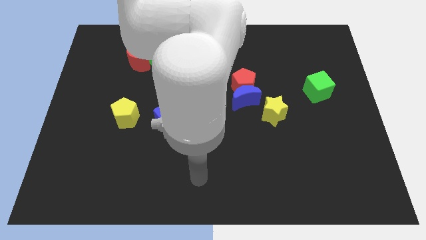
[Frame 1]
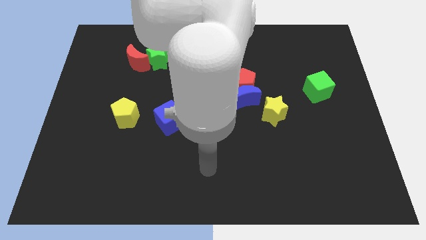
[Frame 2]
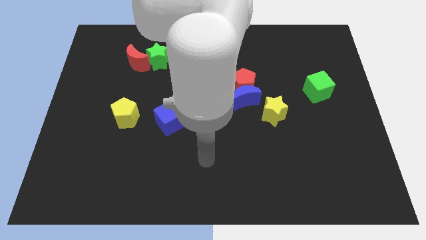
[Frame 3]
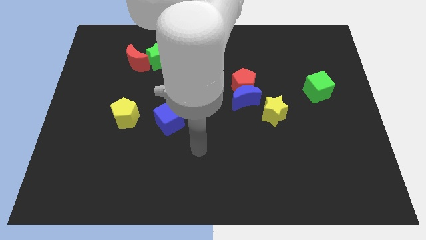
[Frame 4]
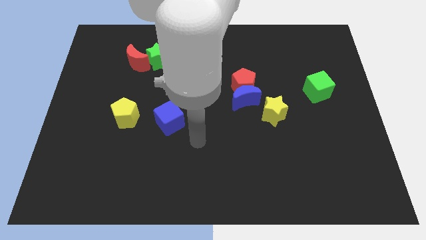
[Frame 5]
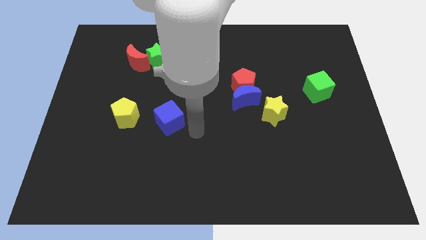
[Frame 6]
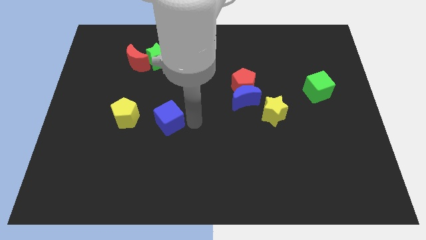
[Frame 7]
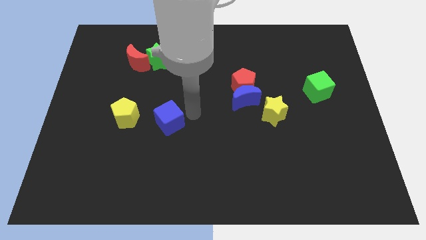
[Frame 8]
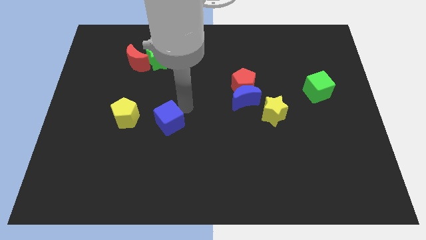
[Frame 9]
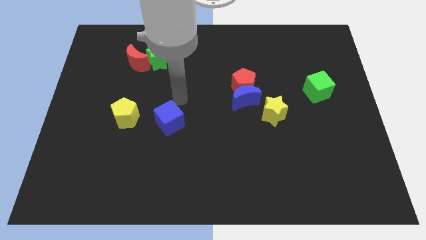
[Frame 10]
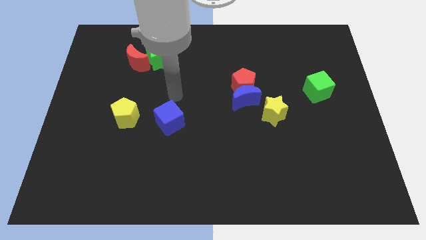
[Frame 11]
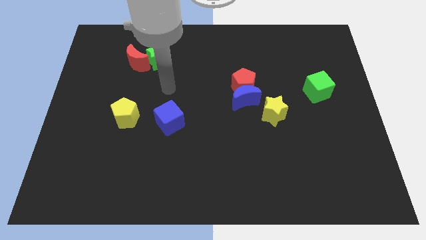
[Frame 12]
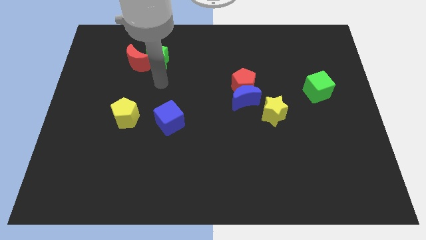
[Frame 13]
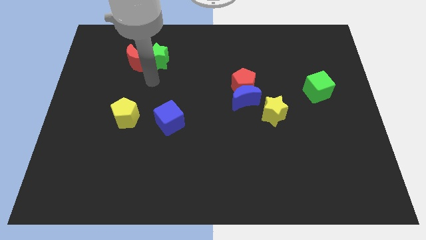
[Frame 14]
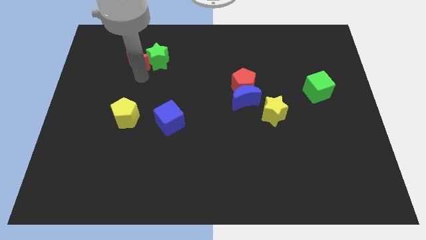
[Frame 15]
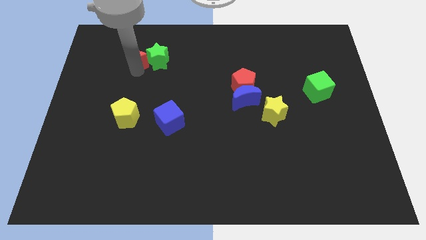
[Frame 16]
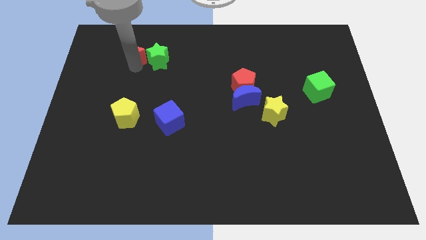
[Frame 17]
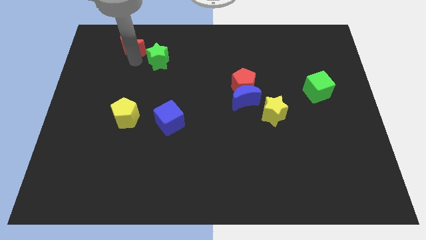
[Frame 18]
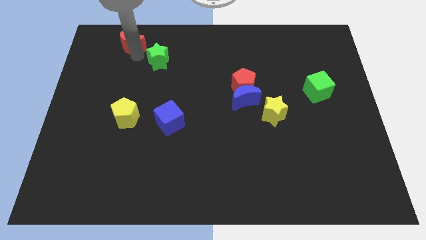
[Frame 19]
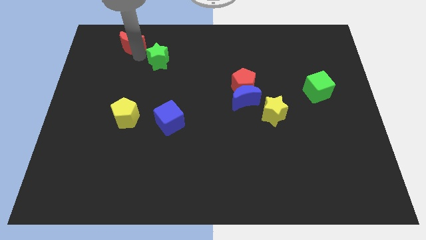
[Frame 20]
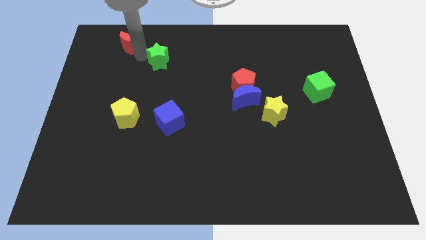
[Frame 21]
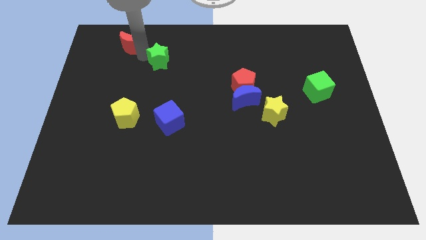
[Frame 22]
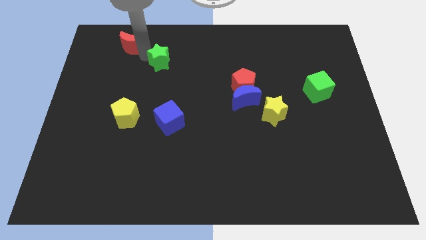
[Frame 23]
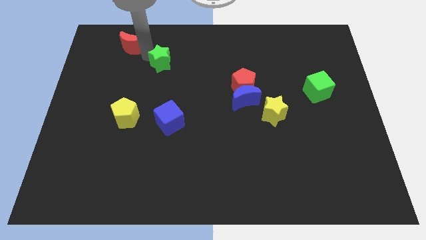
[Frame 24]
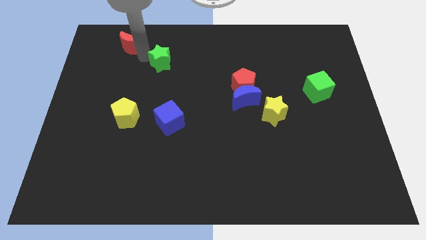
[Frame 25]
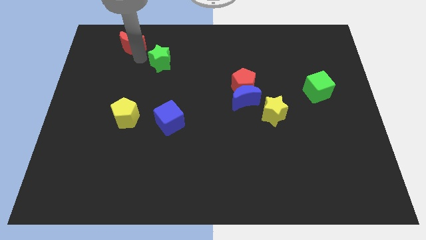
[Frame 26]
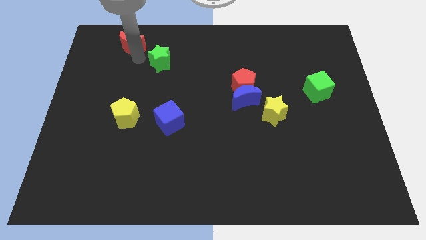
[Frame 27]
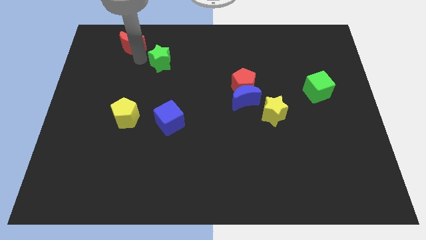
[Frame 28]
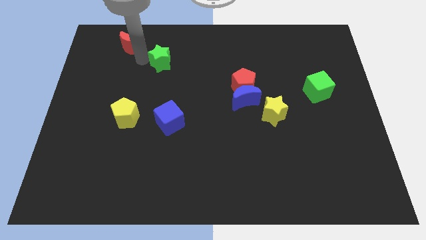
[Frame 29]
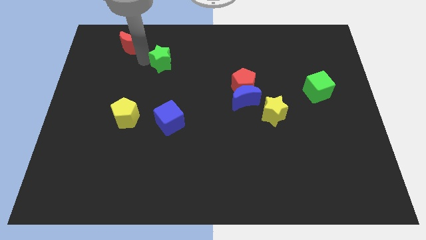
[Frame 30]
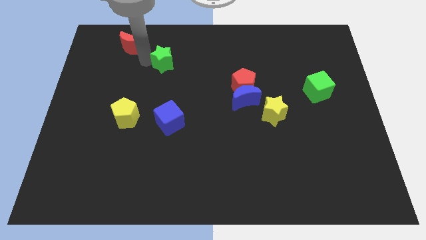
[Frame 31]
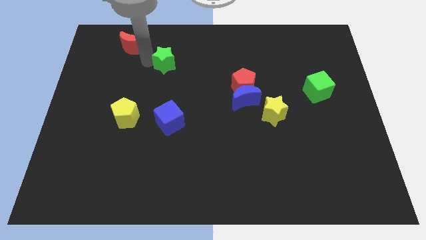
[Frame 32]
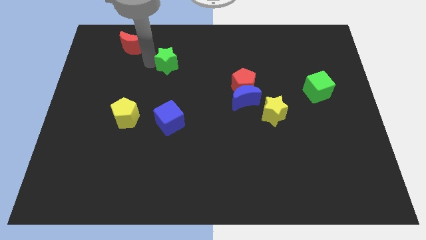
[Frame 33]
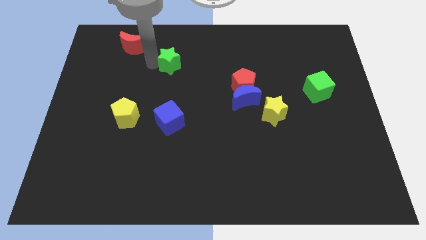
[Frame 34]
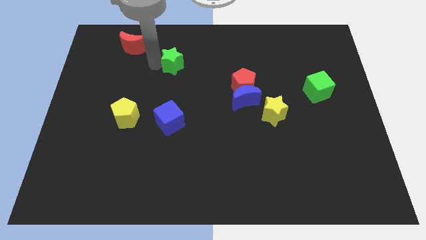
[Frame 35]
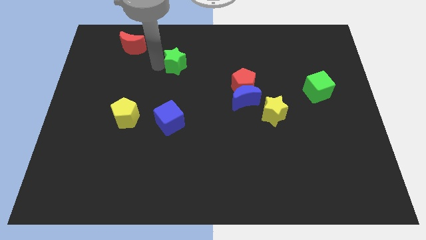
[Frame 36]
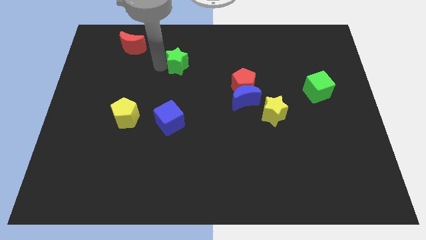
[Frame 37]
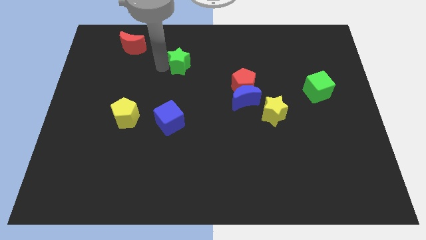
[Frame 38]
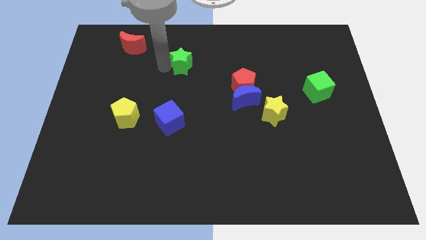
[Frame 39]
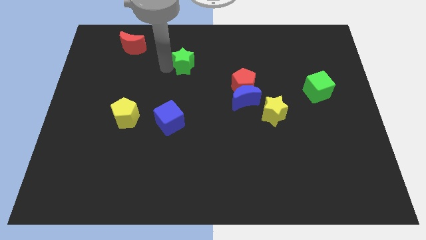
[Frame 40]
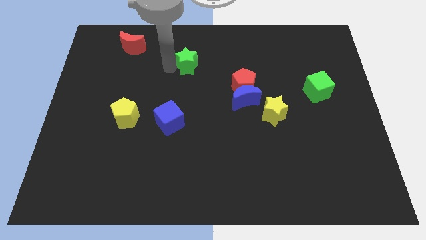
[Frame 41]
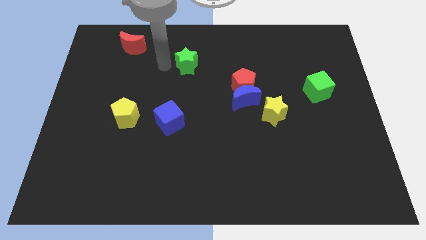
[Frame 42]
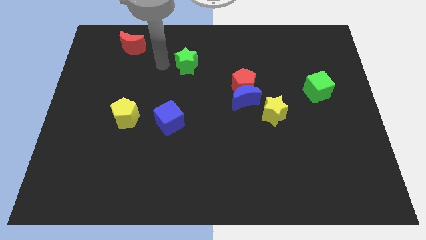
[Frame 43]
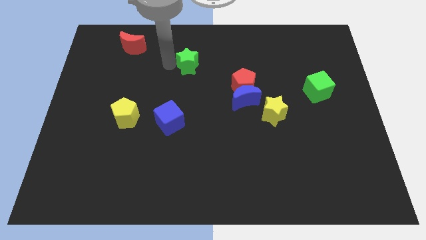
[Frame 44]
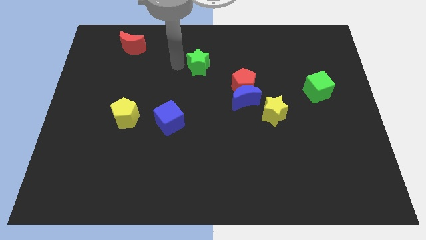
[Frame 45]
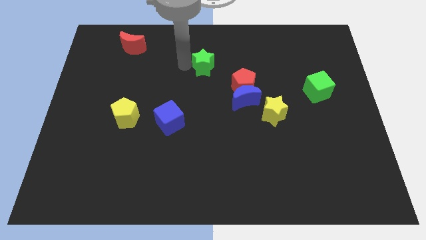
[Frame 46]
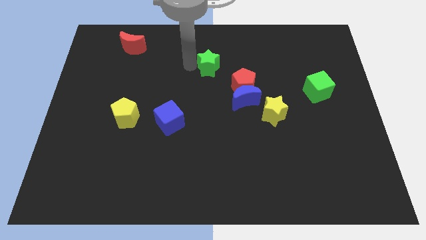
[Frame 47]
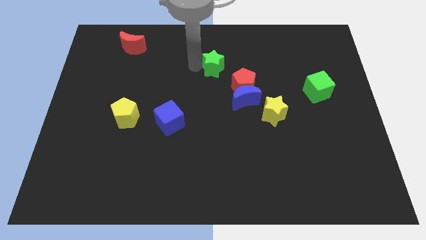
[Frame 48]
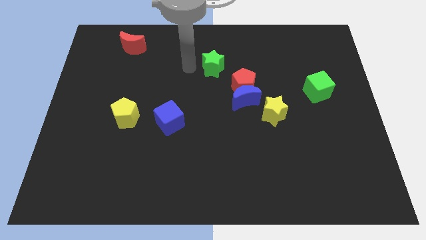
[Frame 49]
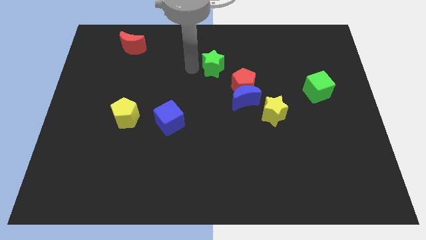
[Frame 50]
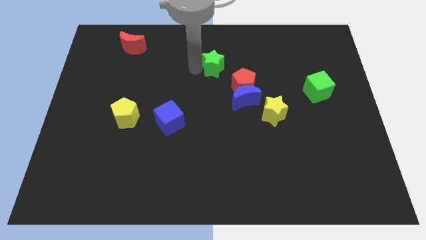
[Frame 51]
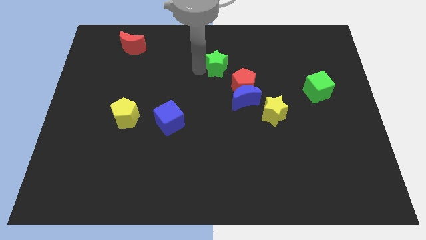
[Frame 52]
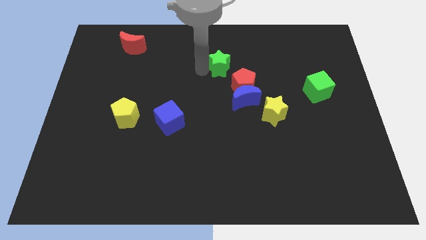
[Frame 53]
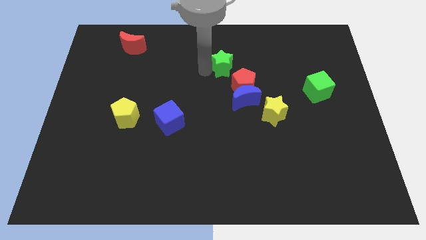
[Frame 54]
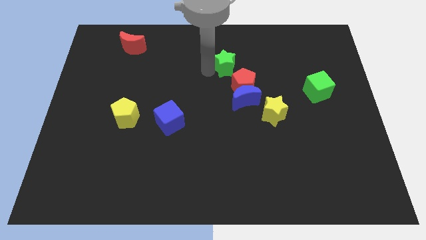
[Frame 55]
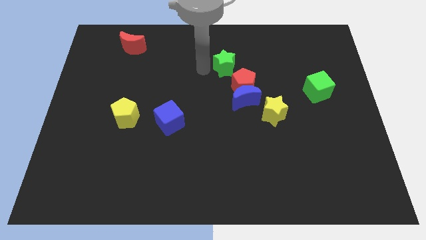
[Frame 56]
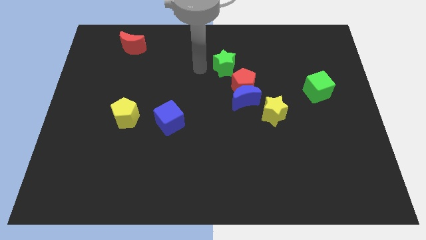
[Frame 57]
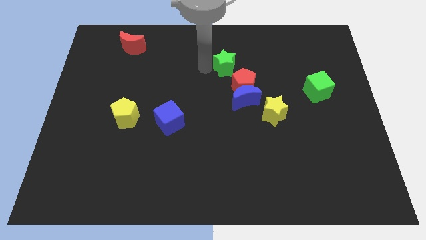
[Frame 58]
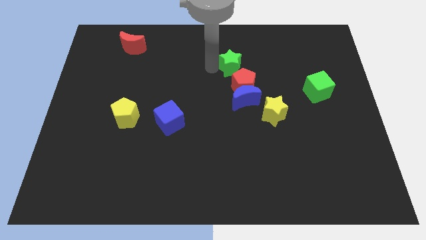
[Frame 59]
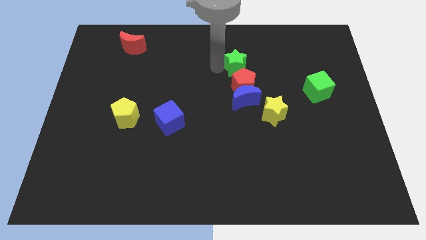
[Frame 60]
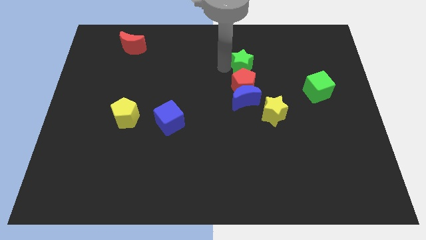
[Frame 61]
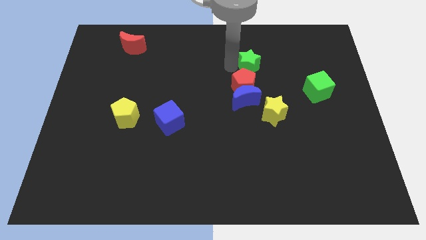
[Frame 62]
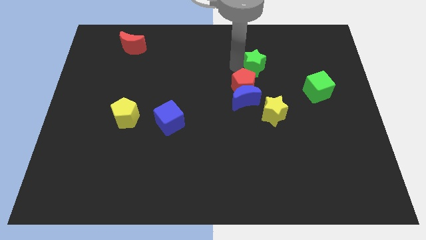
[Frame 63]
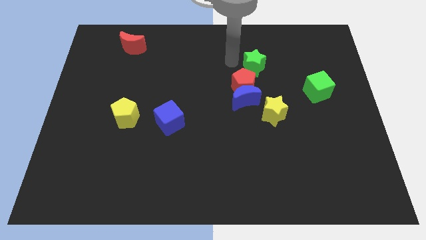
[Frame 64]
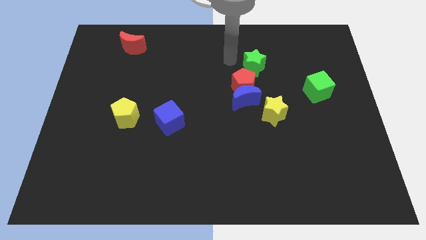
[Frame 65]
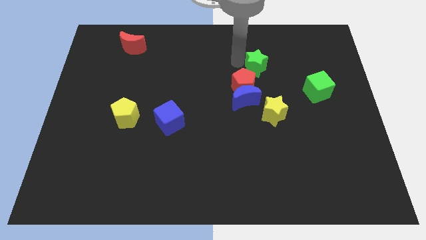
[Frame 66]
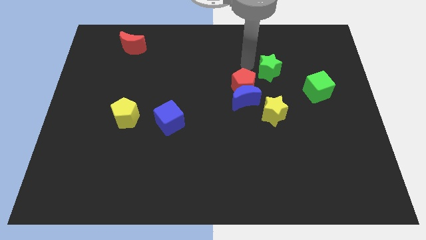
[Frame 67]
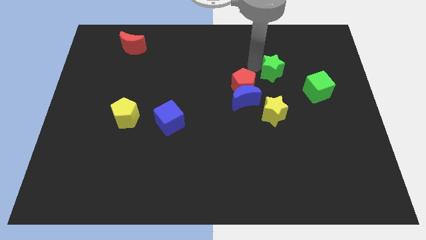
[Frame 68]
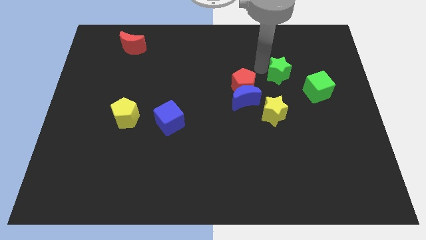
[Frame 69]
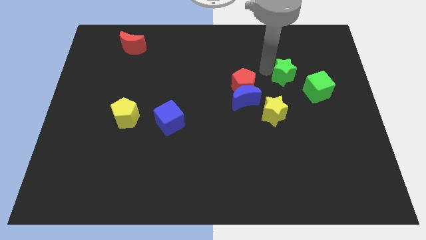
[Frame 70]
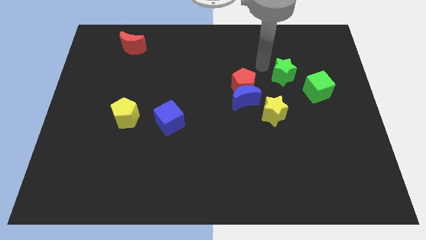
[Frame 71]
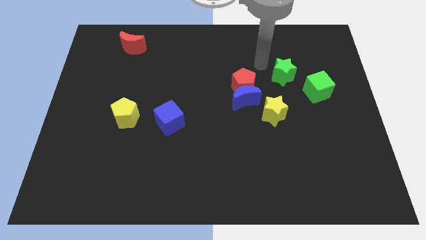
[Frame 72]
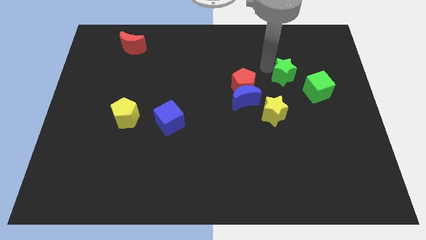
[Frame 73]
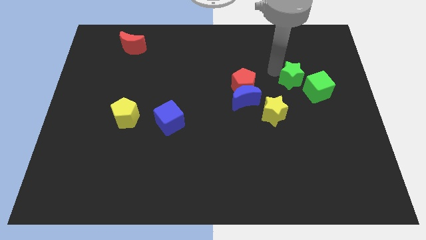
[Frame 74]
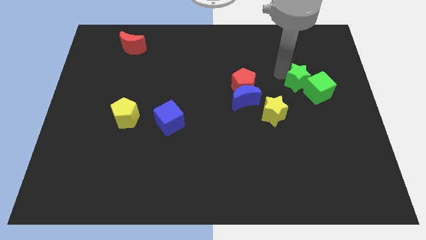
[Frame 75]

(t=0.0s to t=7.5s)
move the green star to the green cube
